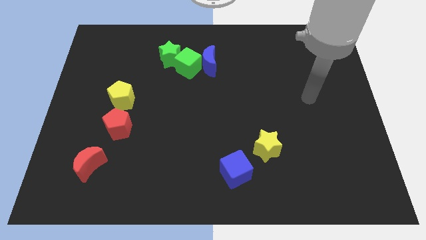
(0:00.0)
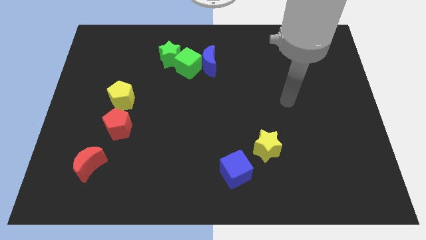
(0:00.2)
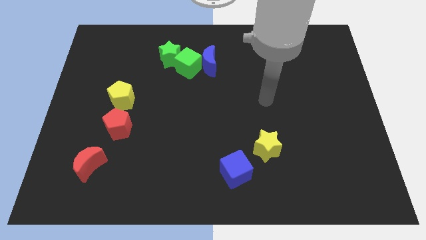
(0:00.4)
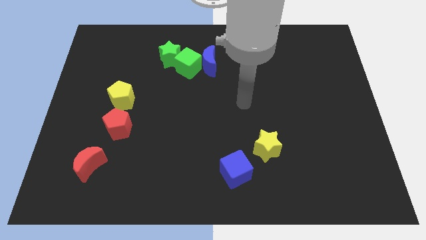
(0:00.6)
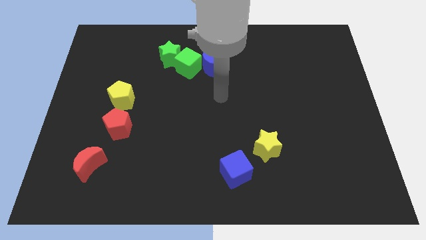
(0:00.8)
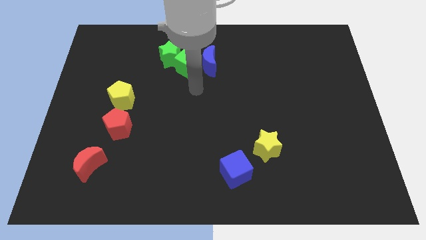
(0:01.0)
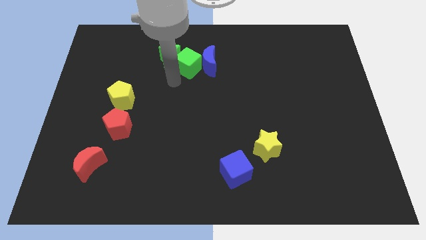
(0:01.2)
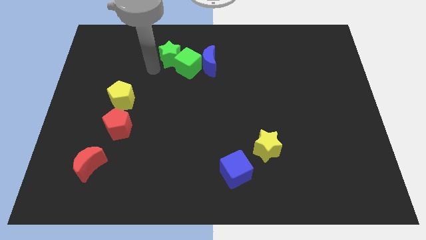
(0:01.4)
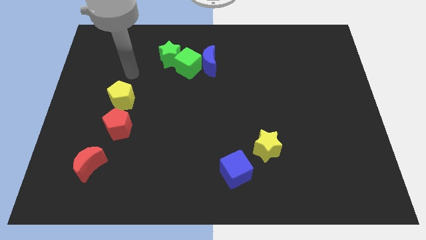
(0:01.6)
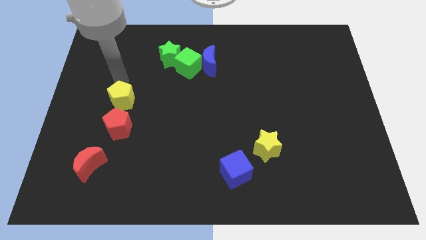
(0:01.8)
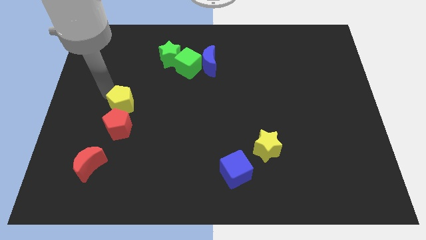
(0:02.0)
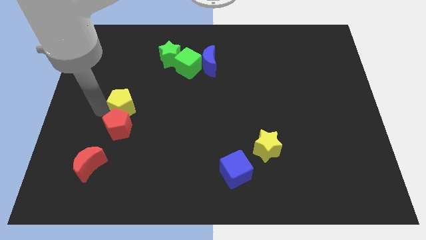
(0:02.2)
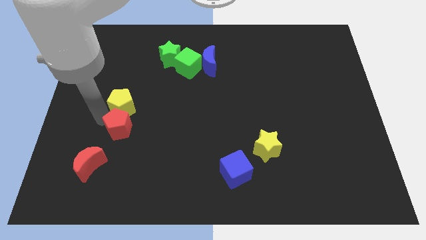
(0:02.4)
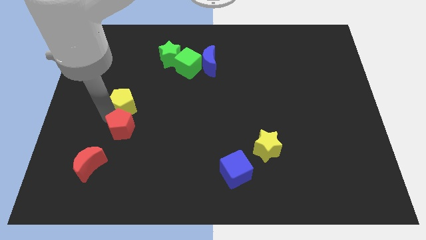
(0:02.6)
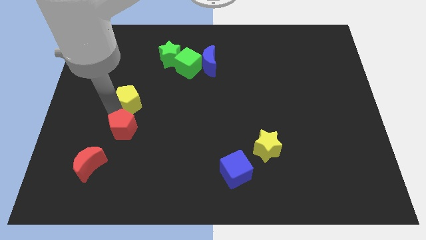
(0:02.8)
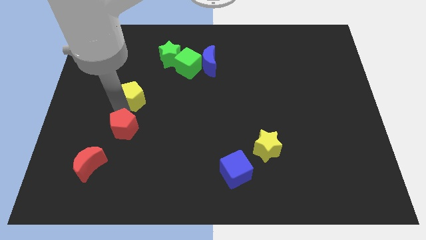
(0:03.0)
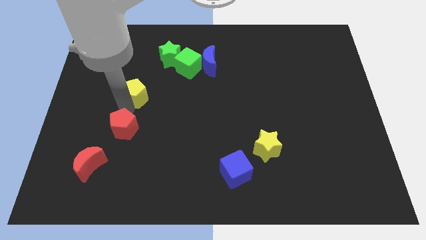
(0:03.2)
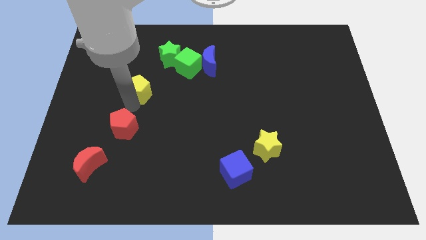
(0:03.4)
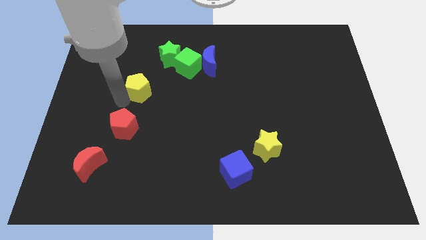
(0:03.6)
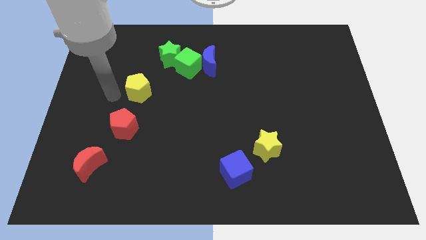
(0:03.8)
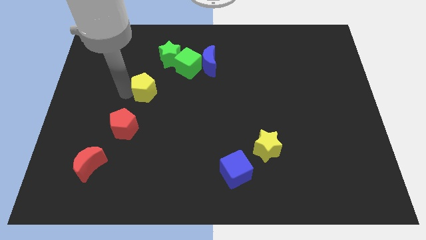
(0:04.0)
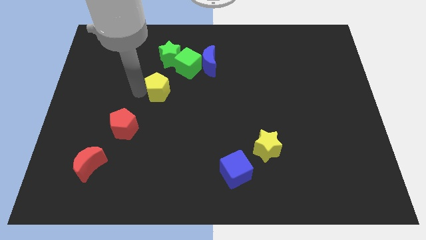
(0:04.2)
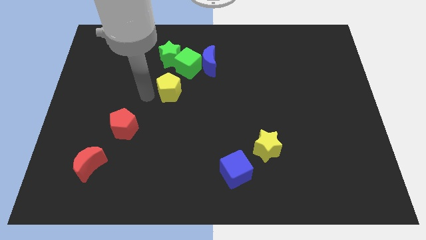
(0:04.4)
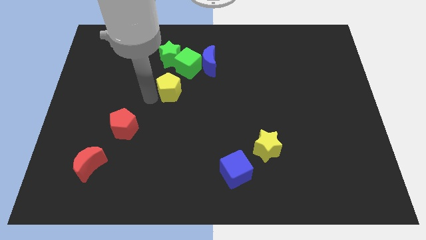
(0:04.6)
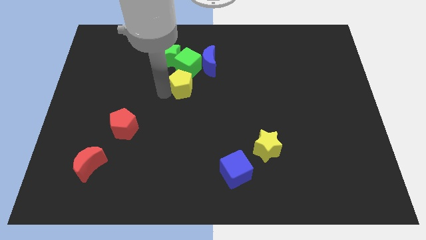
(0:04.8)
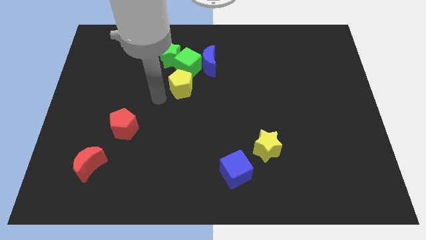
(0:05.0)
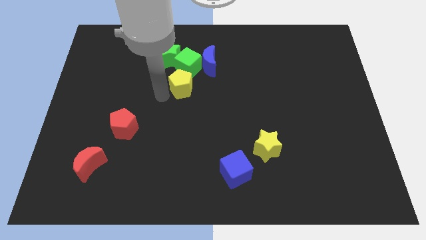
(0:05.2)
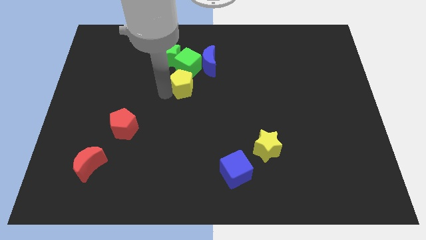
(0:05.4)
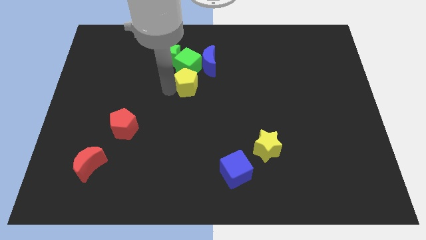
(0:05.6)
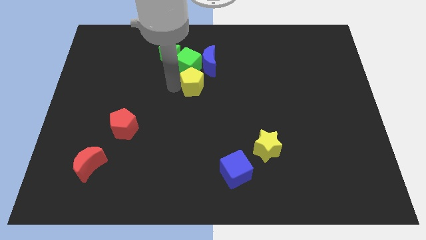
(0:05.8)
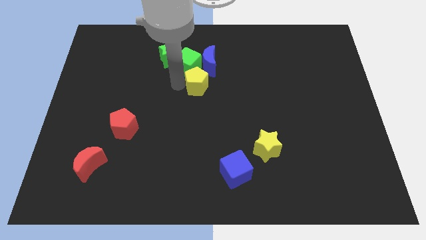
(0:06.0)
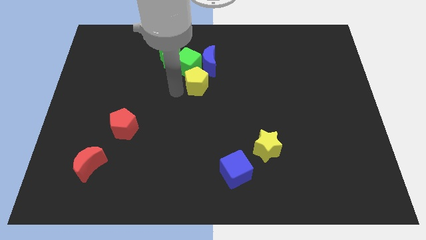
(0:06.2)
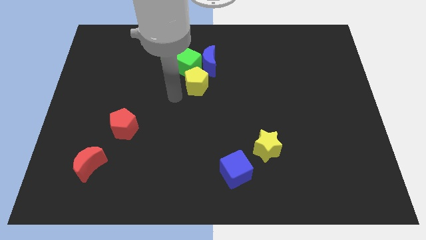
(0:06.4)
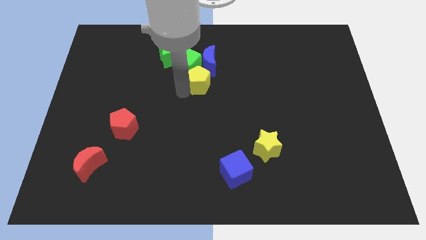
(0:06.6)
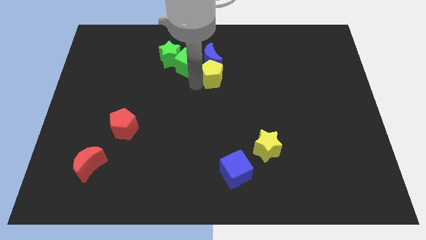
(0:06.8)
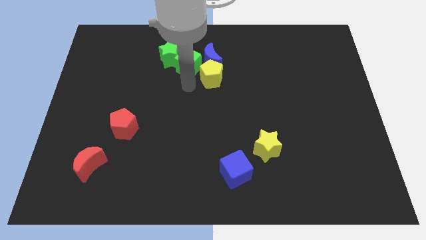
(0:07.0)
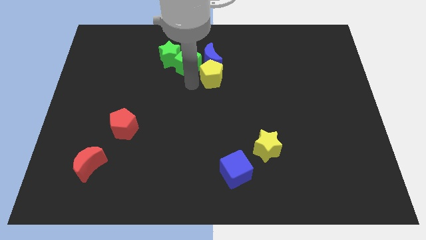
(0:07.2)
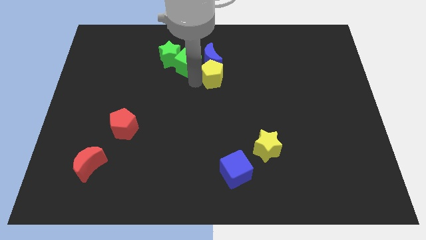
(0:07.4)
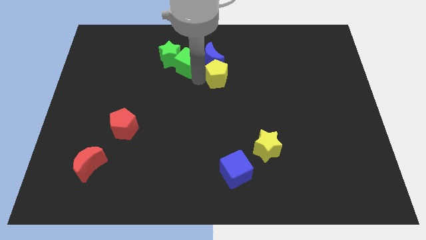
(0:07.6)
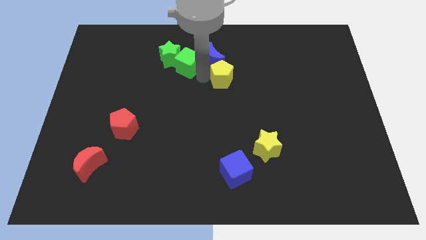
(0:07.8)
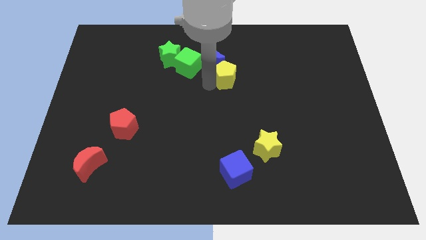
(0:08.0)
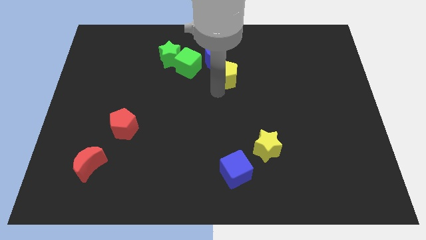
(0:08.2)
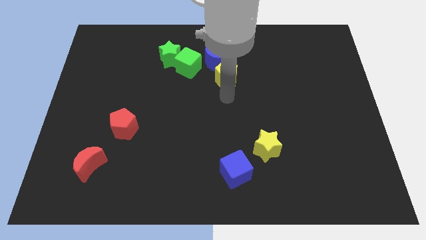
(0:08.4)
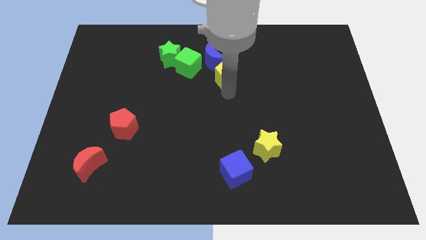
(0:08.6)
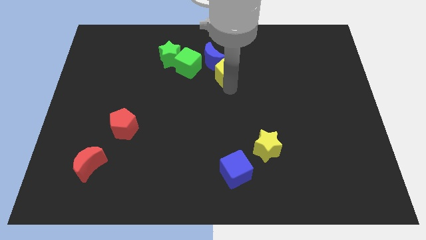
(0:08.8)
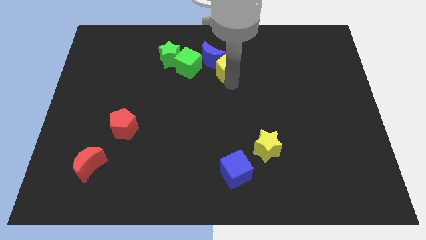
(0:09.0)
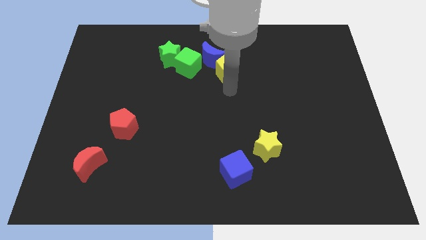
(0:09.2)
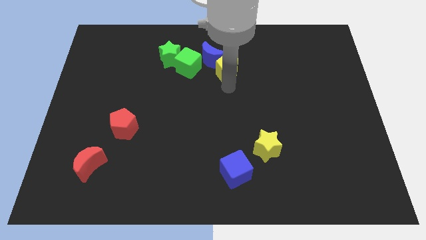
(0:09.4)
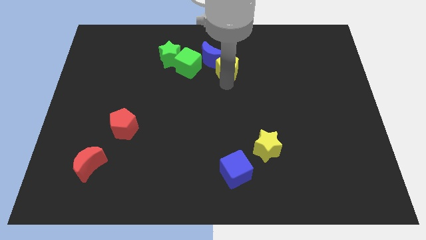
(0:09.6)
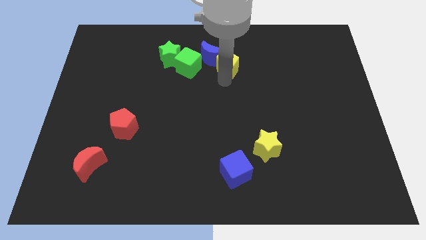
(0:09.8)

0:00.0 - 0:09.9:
put the yellow pentagon just right of the green star

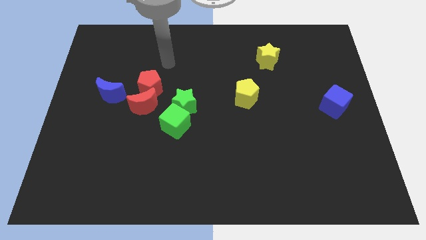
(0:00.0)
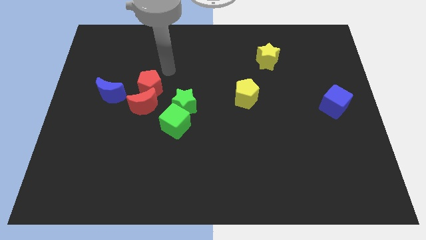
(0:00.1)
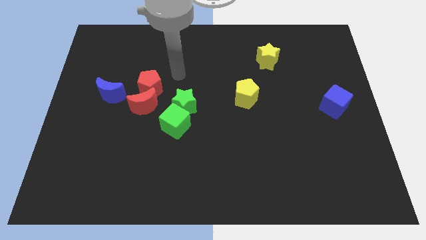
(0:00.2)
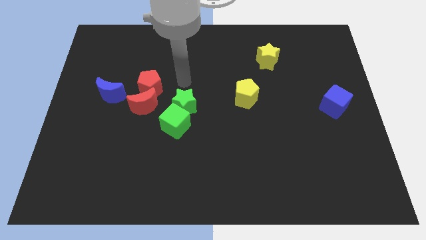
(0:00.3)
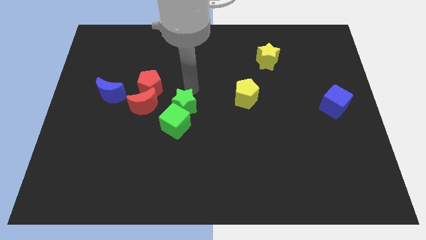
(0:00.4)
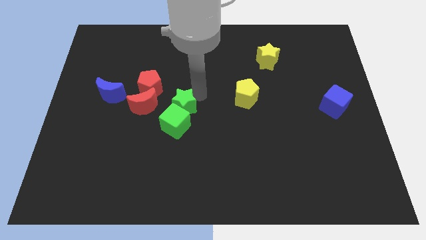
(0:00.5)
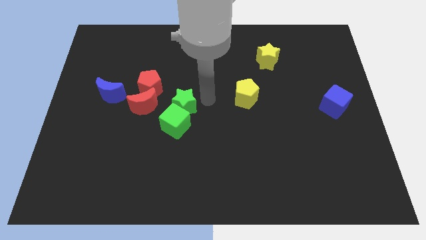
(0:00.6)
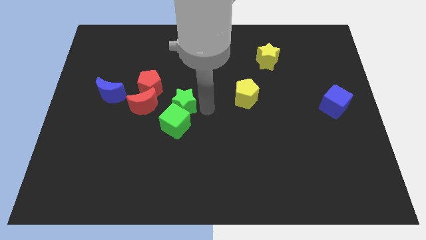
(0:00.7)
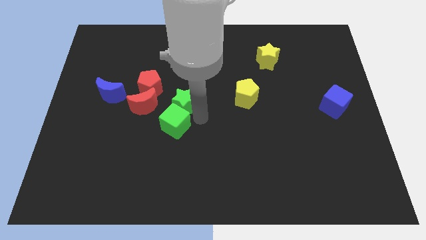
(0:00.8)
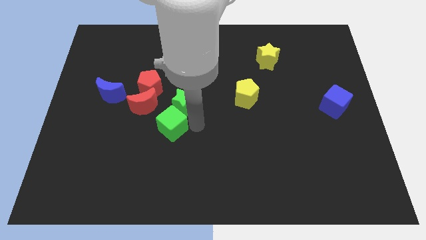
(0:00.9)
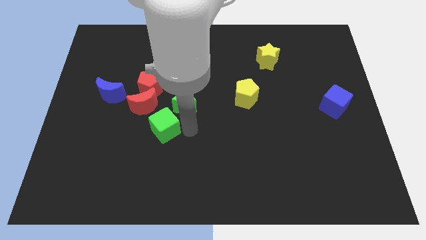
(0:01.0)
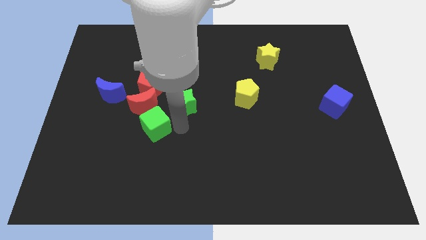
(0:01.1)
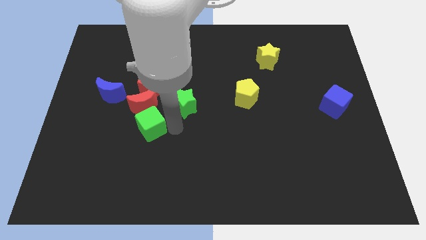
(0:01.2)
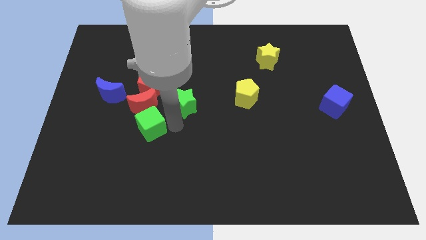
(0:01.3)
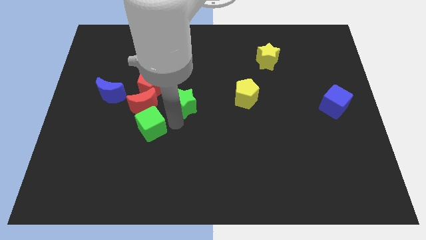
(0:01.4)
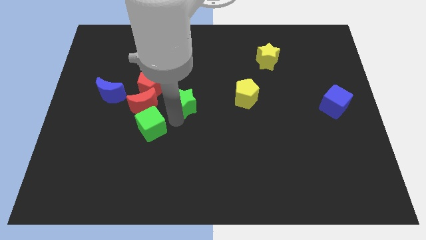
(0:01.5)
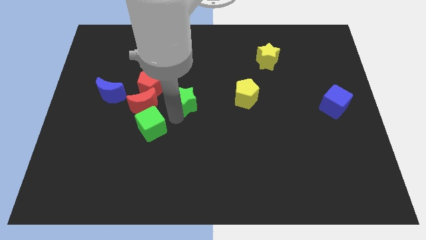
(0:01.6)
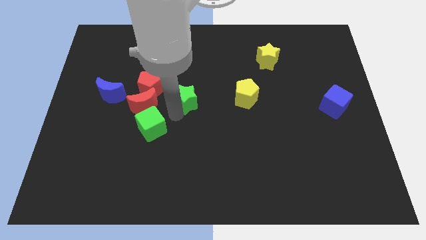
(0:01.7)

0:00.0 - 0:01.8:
push the green star just right of the red pentagon

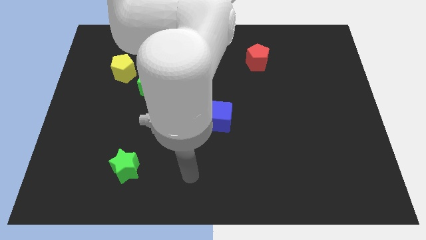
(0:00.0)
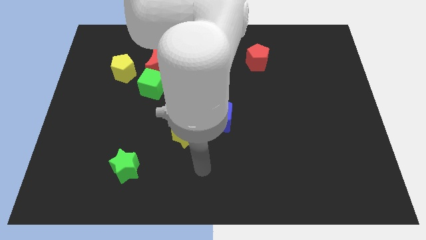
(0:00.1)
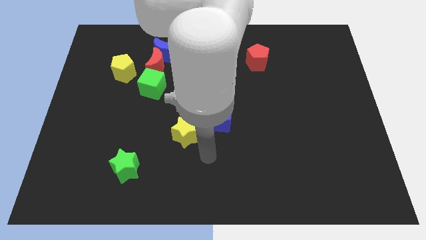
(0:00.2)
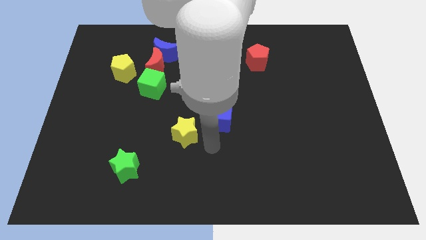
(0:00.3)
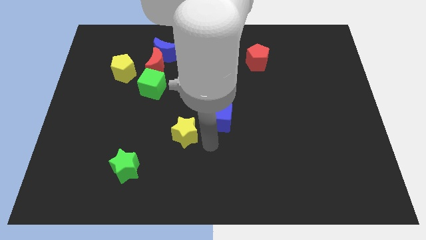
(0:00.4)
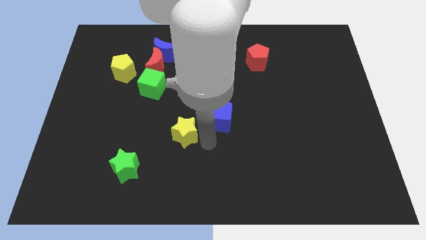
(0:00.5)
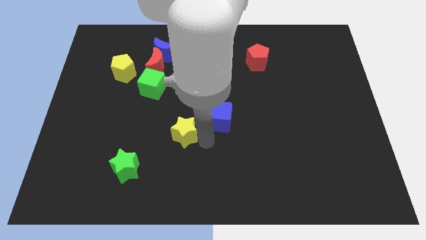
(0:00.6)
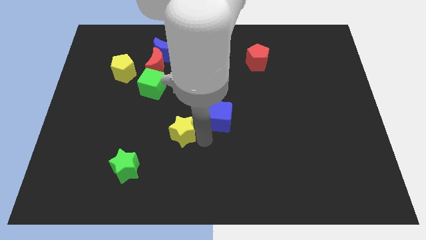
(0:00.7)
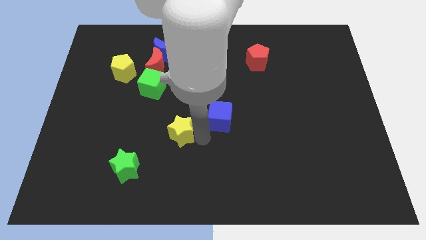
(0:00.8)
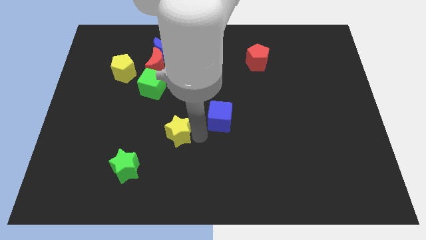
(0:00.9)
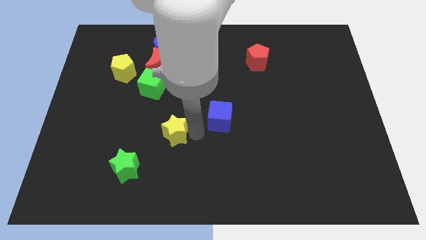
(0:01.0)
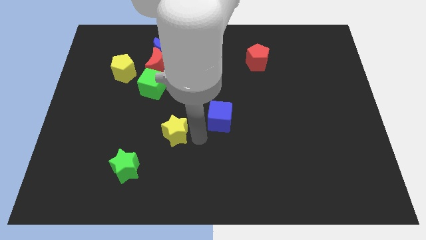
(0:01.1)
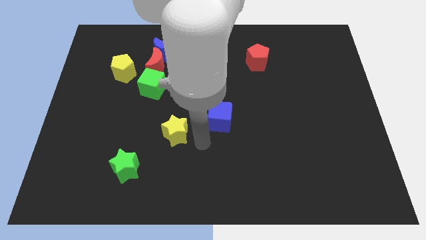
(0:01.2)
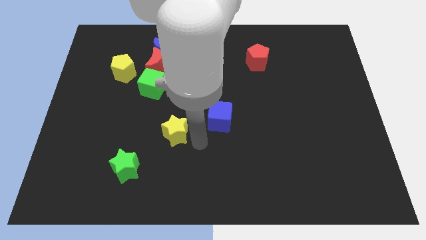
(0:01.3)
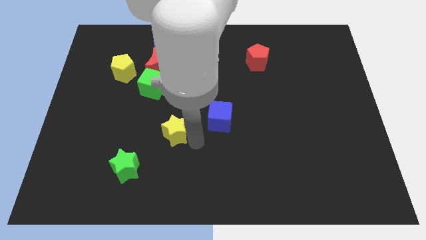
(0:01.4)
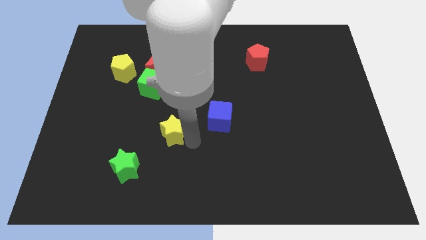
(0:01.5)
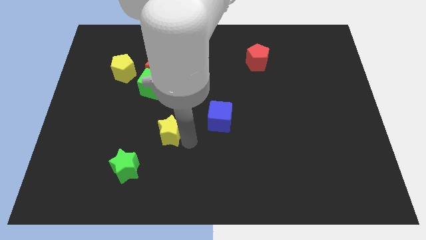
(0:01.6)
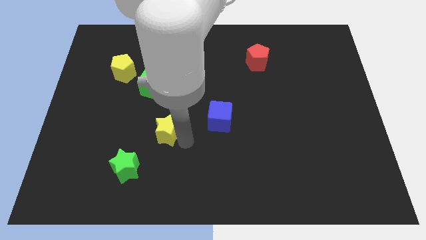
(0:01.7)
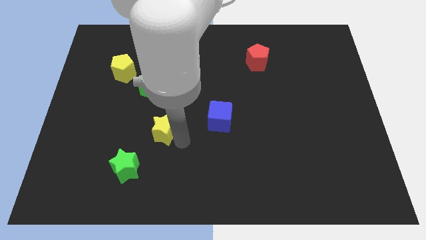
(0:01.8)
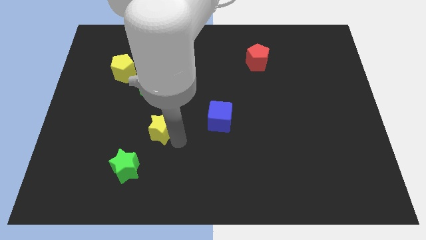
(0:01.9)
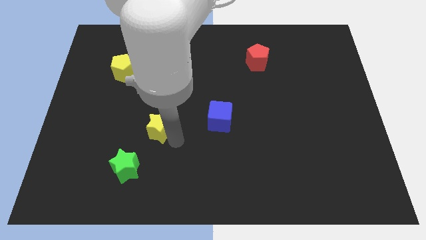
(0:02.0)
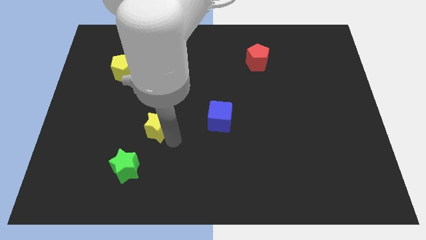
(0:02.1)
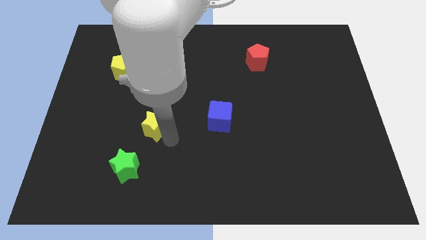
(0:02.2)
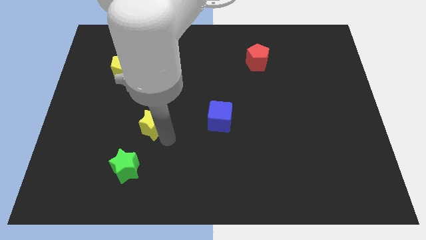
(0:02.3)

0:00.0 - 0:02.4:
push the yellow star to the top side of the green star
